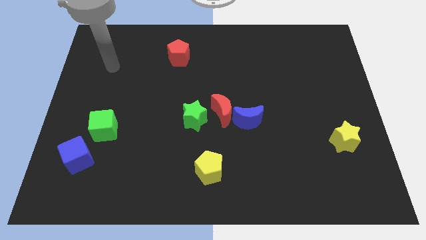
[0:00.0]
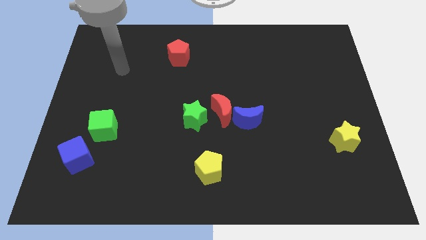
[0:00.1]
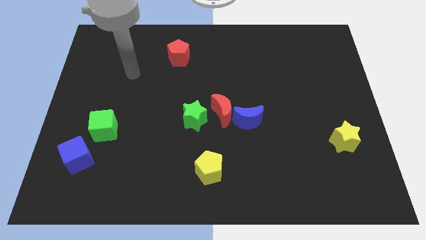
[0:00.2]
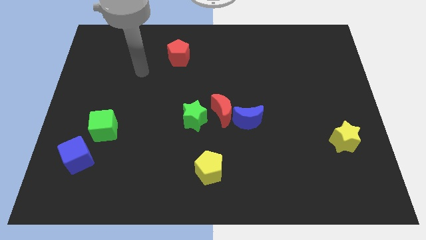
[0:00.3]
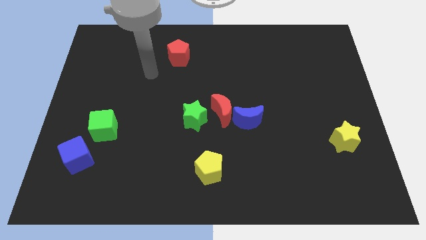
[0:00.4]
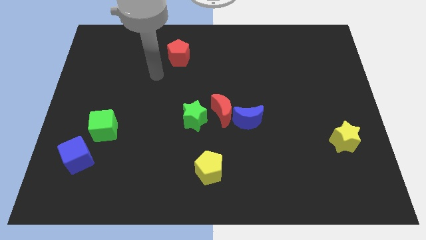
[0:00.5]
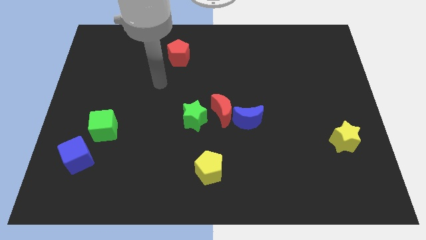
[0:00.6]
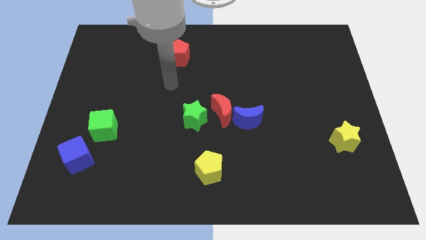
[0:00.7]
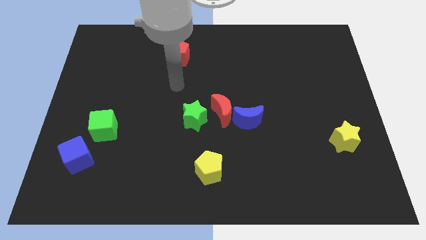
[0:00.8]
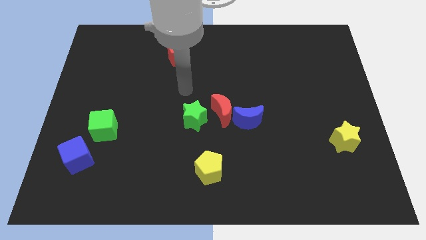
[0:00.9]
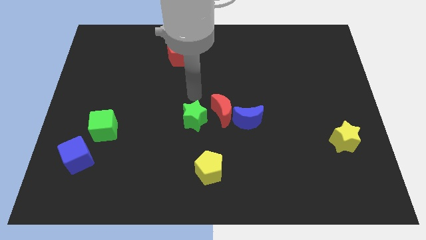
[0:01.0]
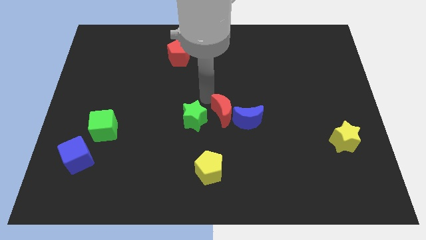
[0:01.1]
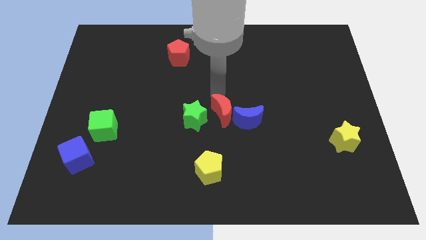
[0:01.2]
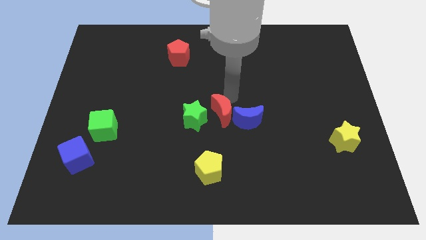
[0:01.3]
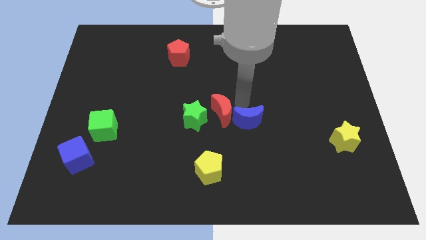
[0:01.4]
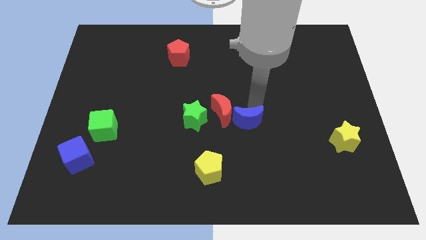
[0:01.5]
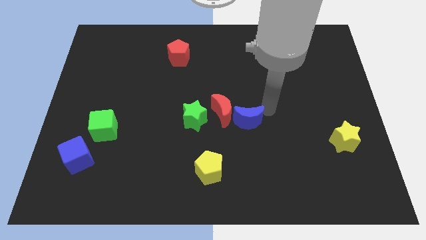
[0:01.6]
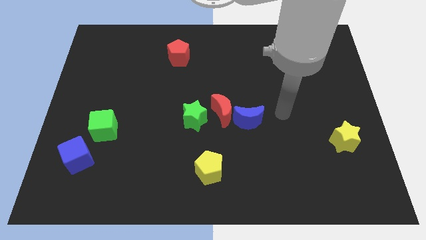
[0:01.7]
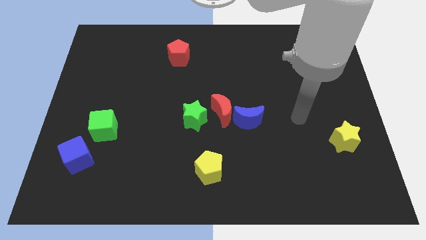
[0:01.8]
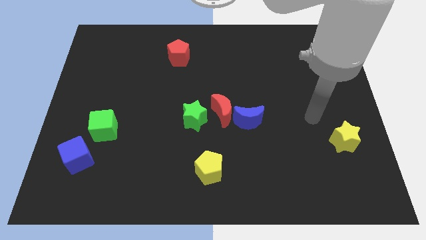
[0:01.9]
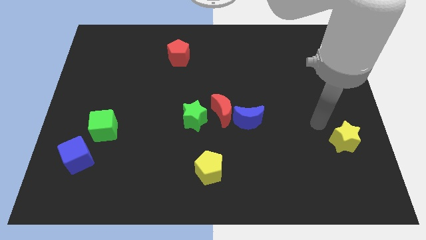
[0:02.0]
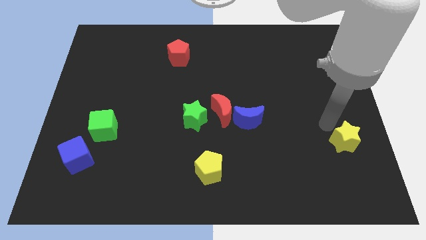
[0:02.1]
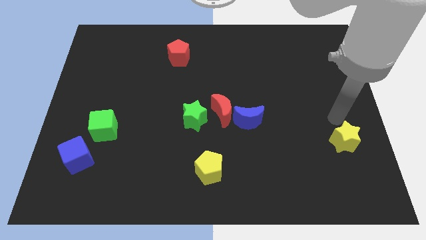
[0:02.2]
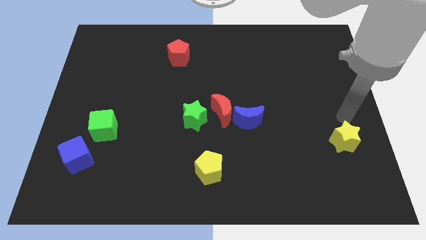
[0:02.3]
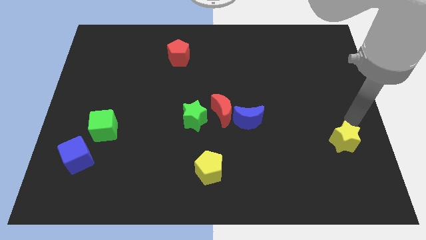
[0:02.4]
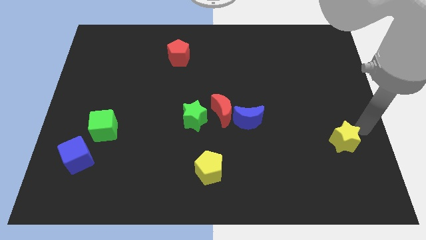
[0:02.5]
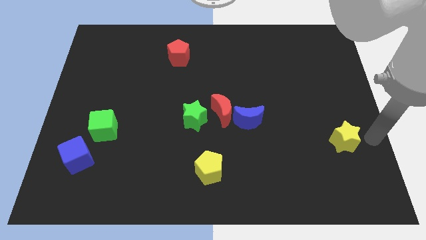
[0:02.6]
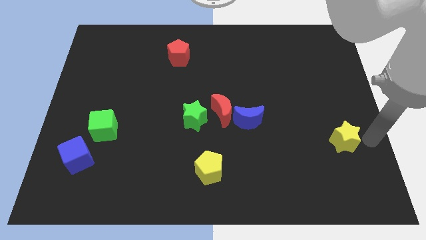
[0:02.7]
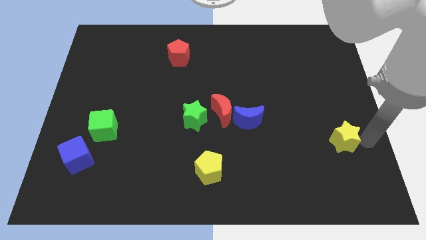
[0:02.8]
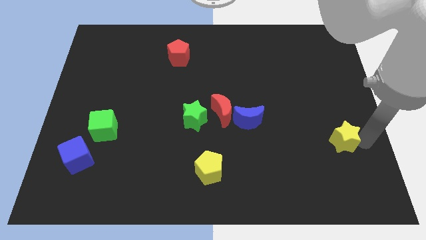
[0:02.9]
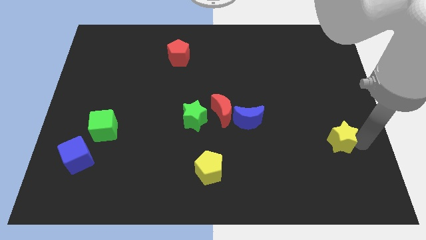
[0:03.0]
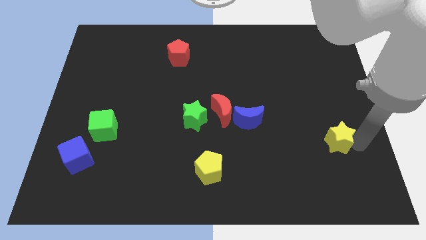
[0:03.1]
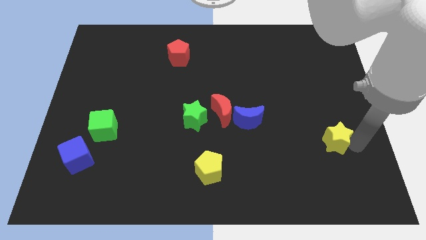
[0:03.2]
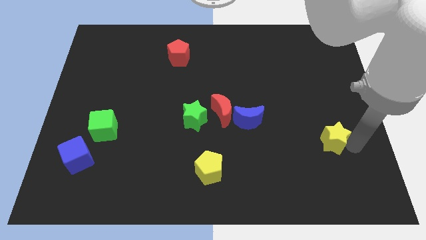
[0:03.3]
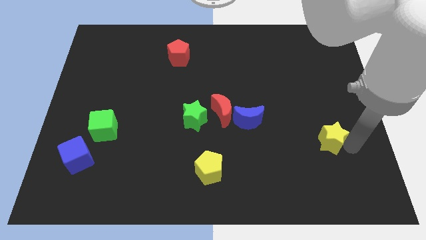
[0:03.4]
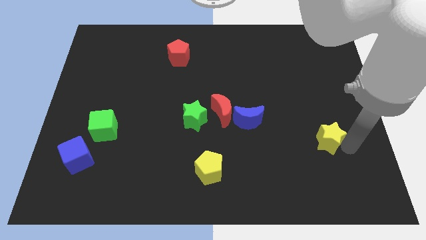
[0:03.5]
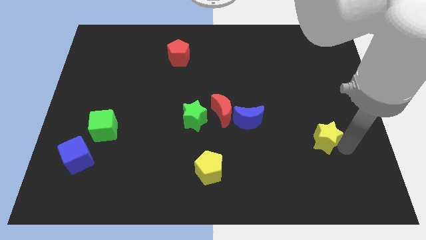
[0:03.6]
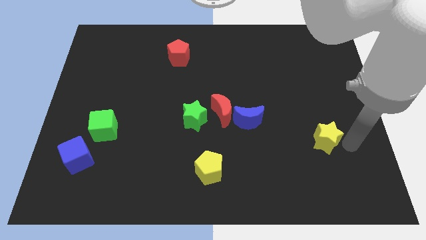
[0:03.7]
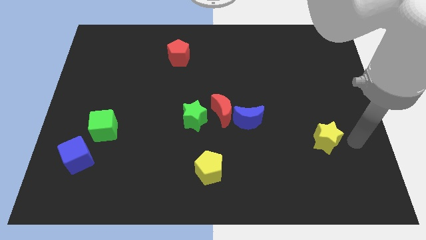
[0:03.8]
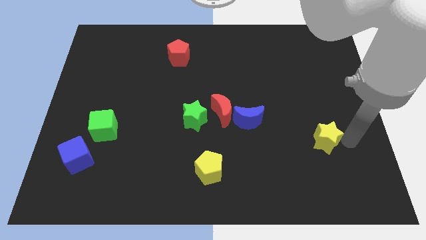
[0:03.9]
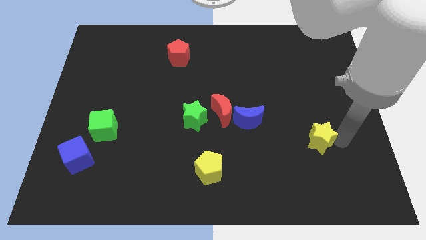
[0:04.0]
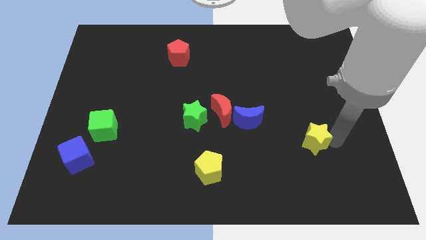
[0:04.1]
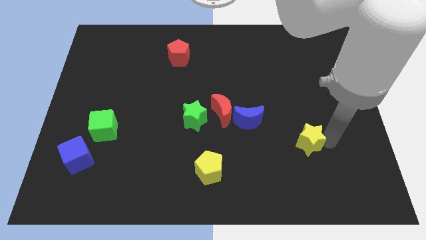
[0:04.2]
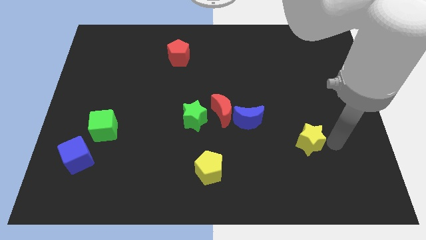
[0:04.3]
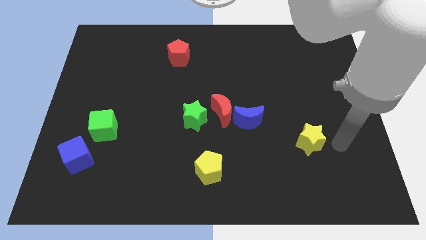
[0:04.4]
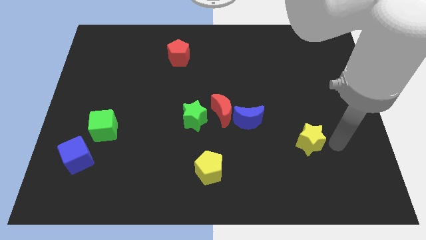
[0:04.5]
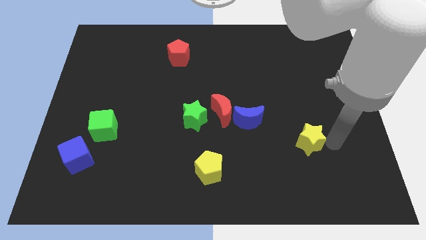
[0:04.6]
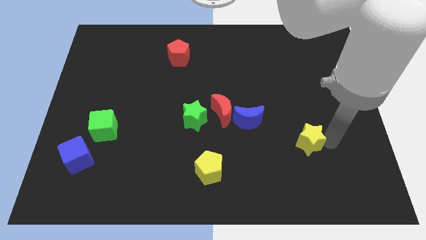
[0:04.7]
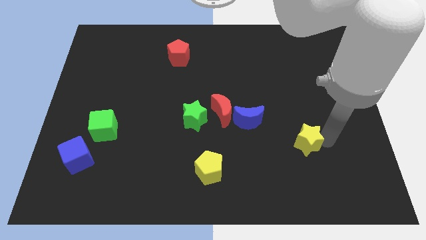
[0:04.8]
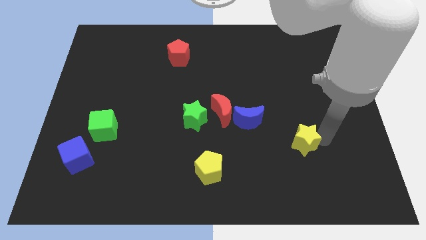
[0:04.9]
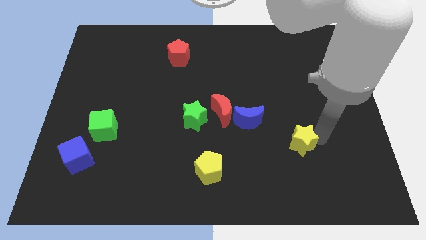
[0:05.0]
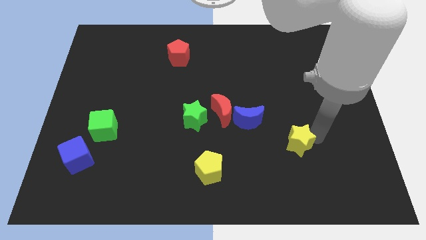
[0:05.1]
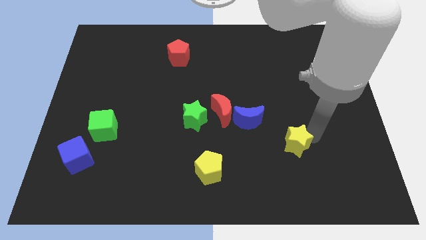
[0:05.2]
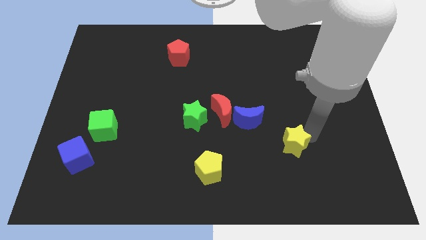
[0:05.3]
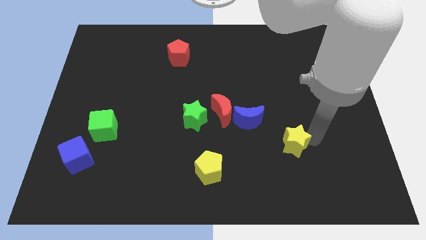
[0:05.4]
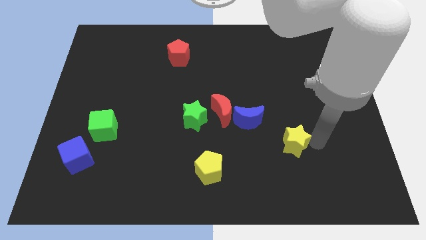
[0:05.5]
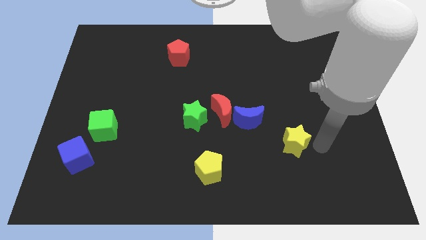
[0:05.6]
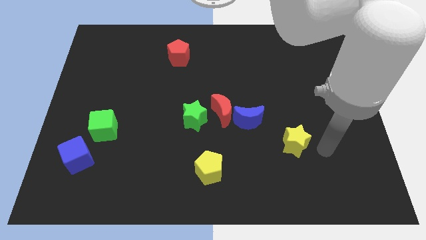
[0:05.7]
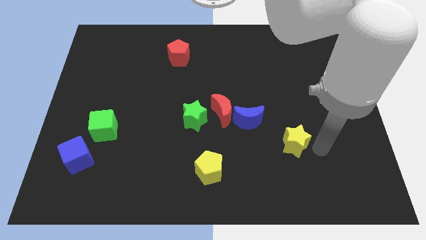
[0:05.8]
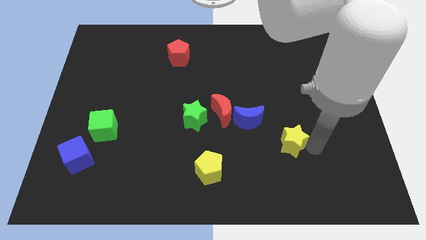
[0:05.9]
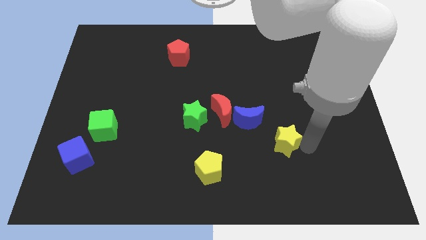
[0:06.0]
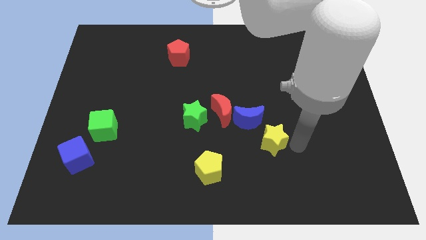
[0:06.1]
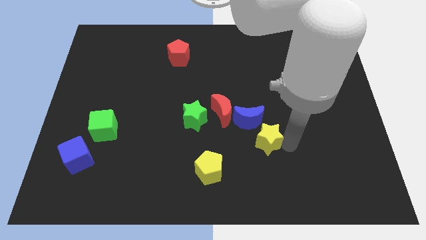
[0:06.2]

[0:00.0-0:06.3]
push the yellow star to the bottom right side of the red moon

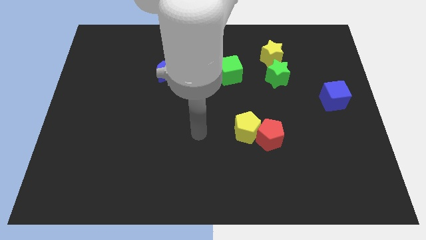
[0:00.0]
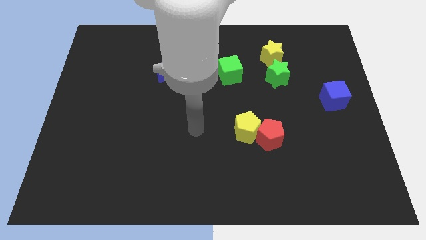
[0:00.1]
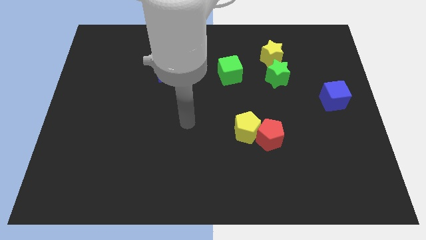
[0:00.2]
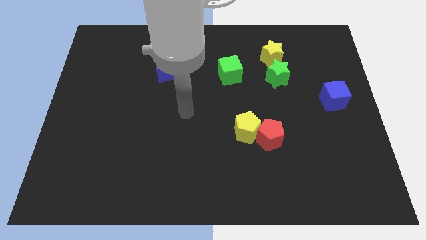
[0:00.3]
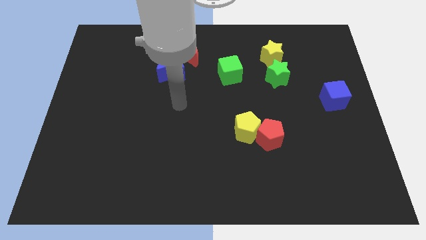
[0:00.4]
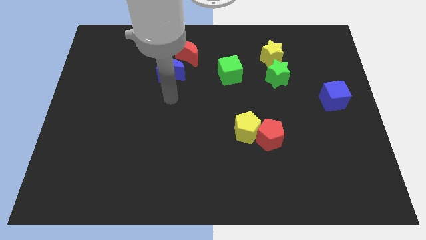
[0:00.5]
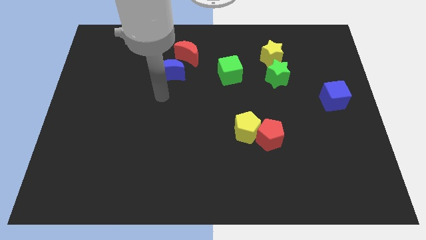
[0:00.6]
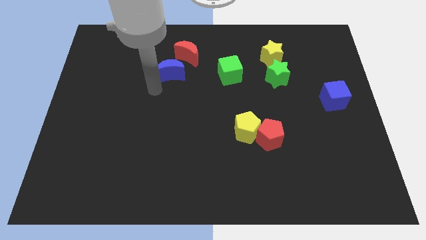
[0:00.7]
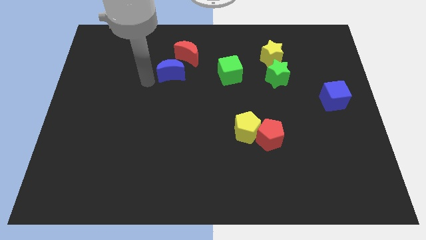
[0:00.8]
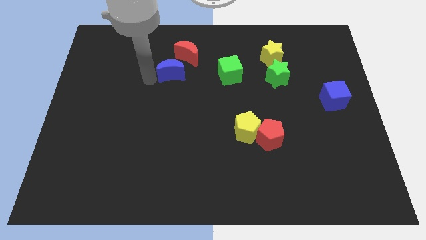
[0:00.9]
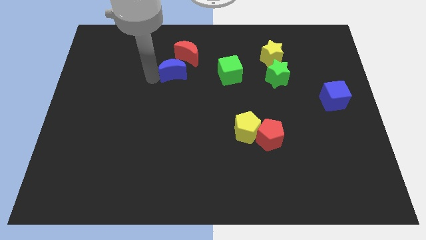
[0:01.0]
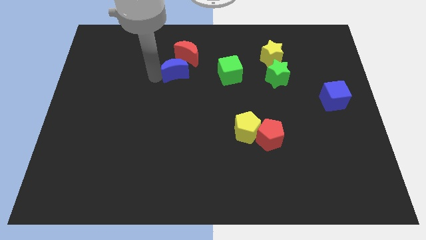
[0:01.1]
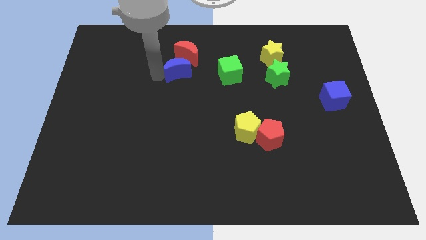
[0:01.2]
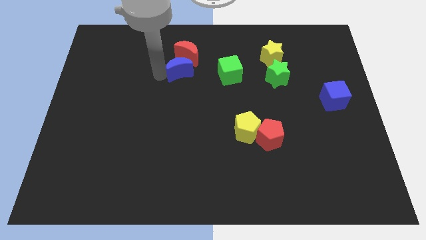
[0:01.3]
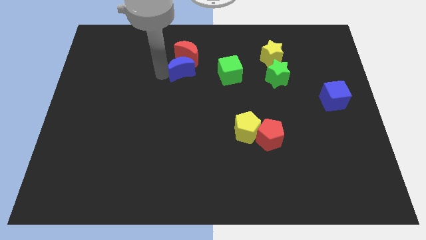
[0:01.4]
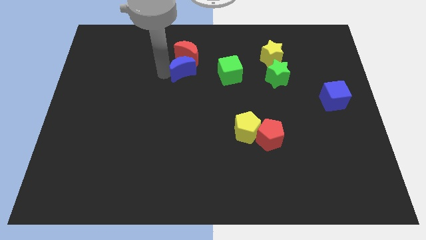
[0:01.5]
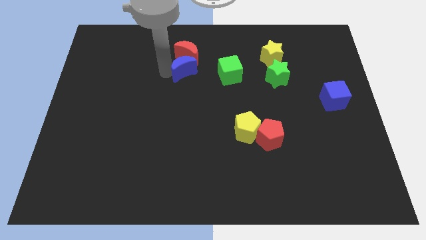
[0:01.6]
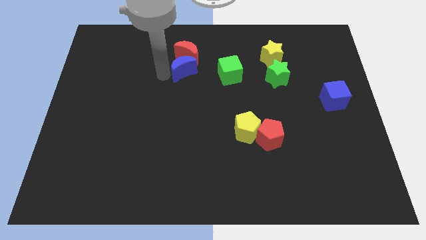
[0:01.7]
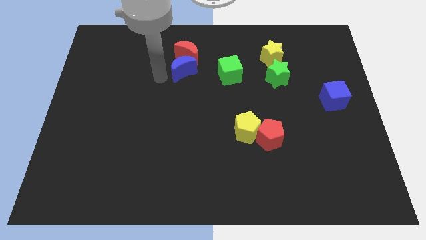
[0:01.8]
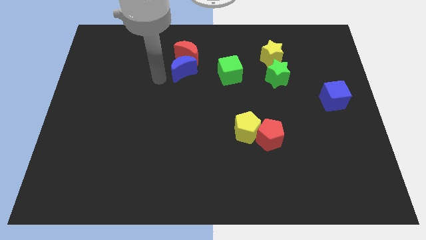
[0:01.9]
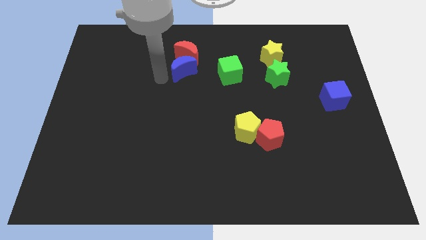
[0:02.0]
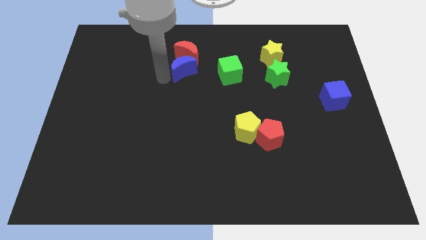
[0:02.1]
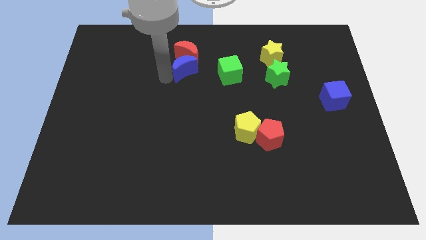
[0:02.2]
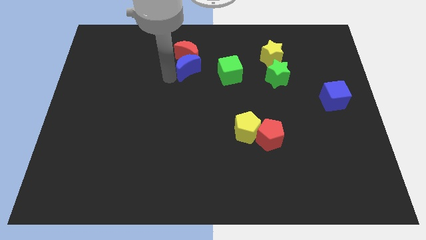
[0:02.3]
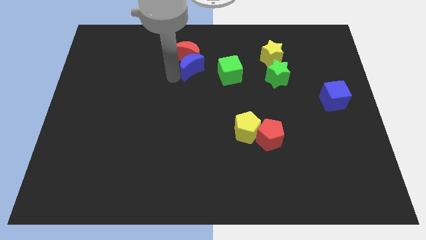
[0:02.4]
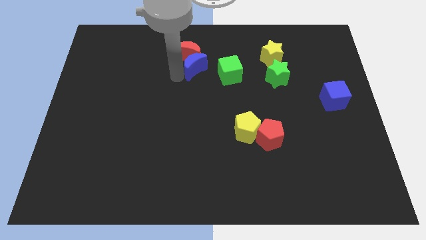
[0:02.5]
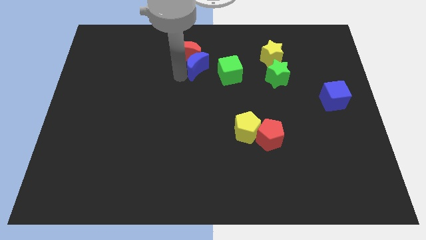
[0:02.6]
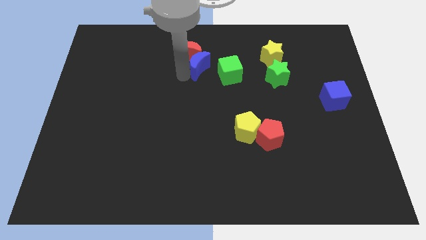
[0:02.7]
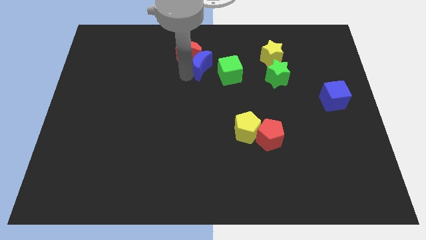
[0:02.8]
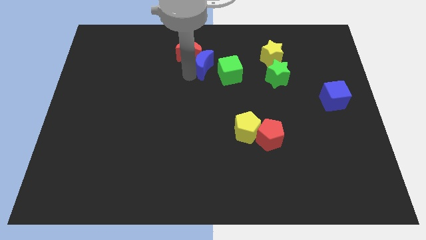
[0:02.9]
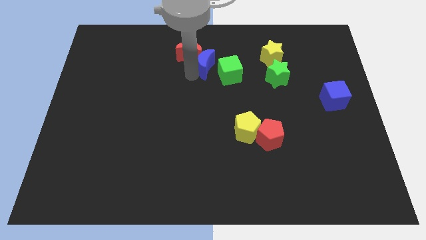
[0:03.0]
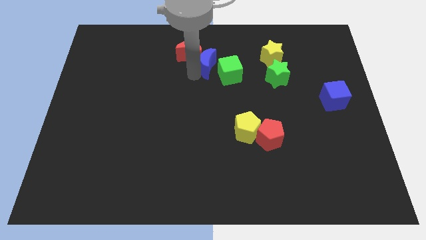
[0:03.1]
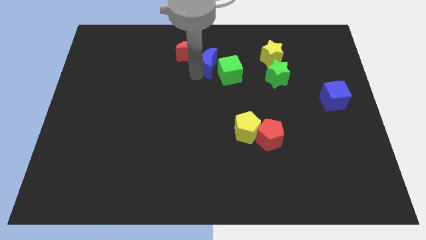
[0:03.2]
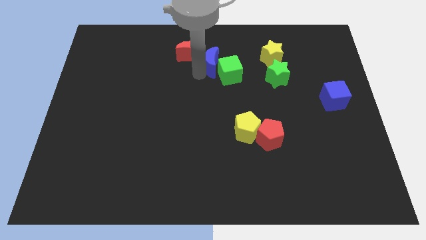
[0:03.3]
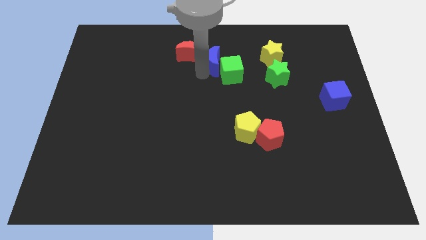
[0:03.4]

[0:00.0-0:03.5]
slide the blue moon to the left of the yellow star
